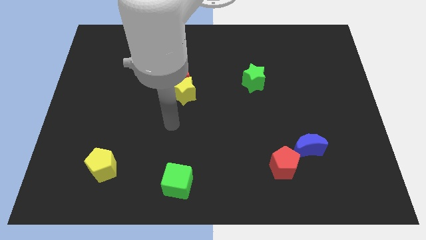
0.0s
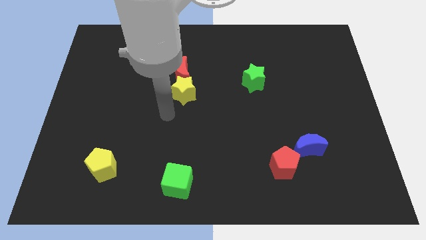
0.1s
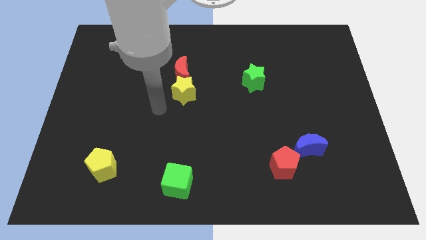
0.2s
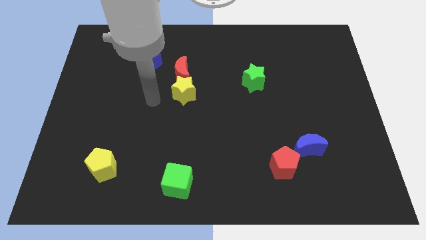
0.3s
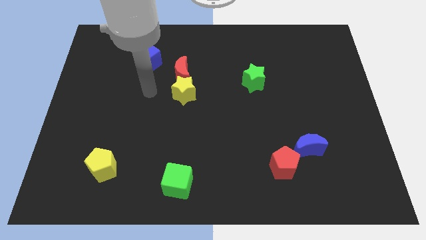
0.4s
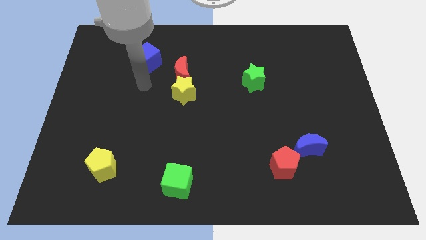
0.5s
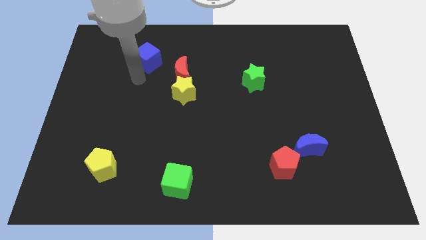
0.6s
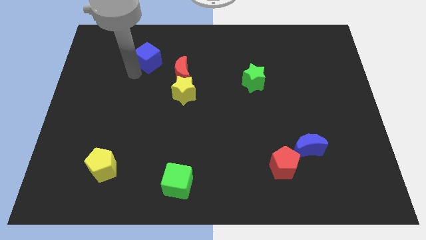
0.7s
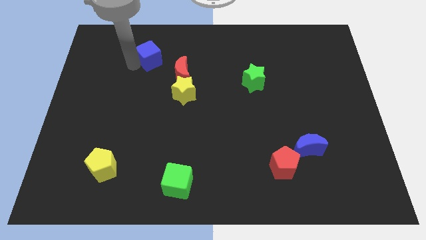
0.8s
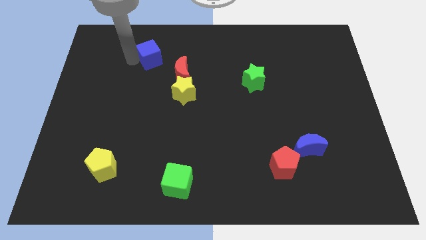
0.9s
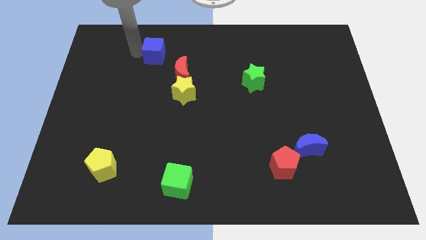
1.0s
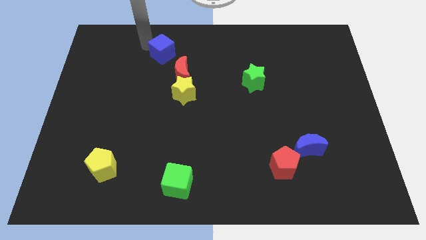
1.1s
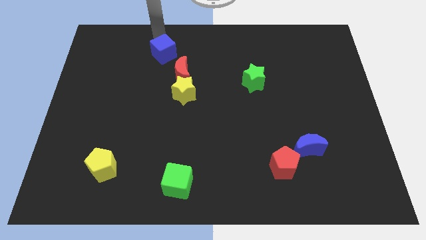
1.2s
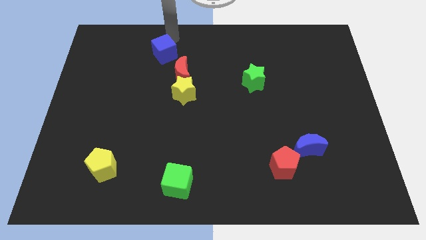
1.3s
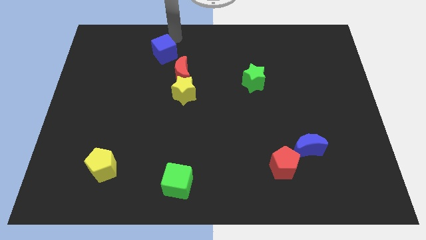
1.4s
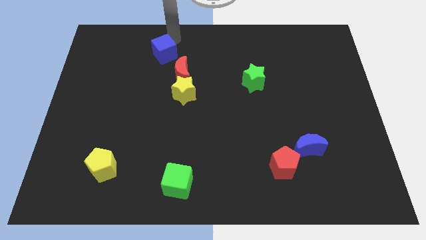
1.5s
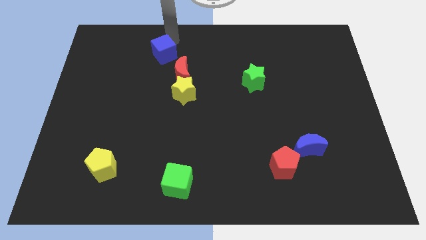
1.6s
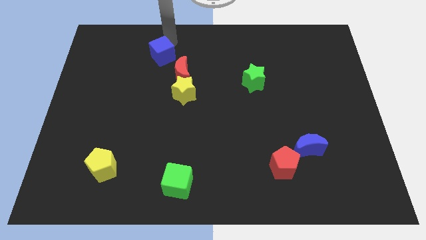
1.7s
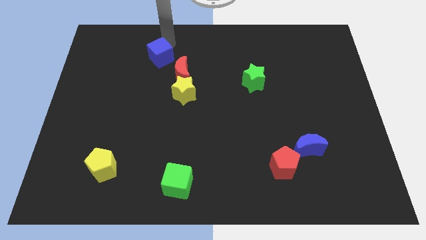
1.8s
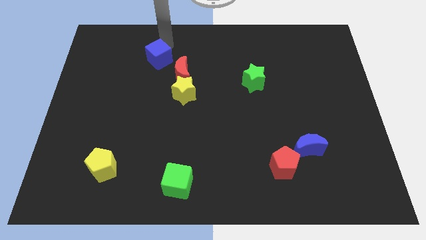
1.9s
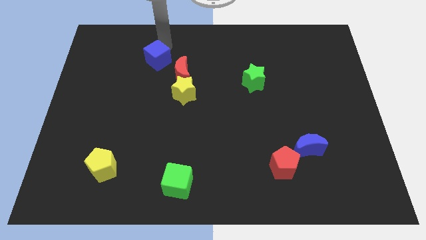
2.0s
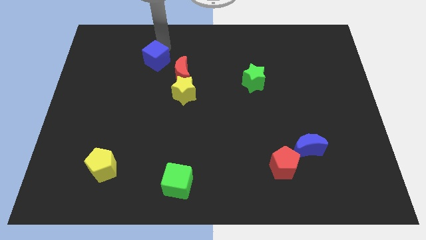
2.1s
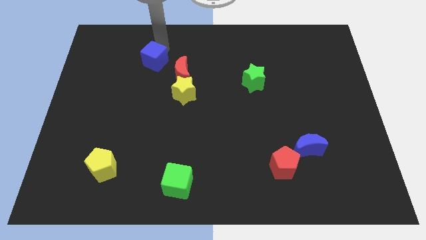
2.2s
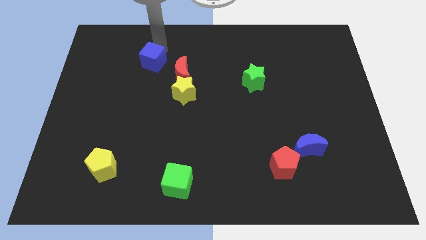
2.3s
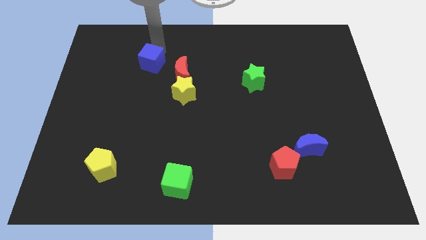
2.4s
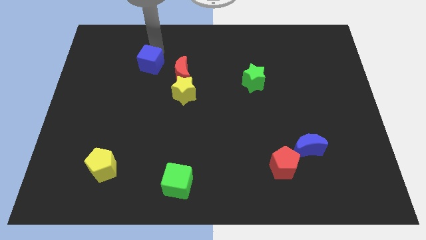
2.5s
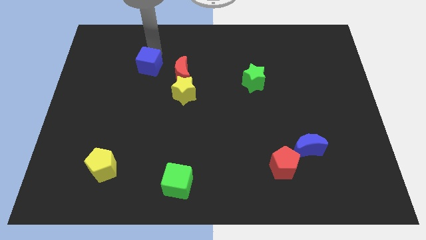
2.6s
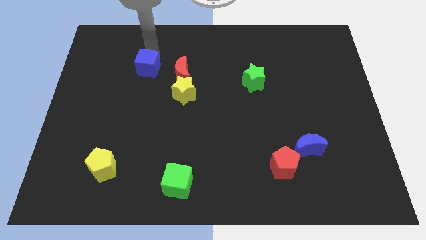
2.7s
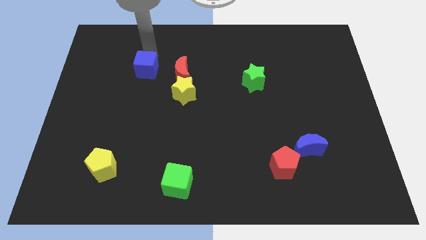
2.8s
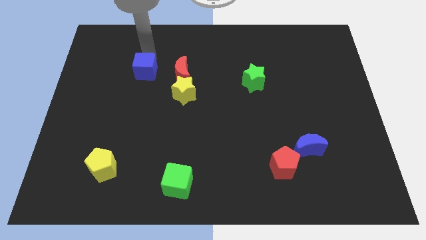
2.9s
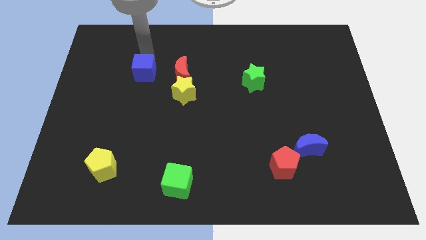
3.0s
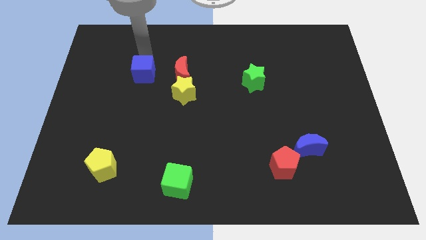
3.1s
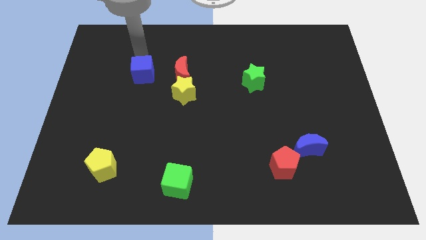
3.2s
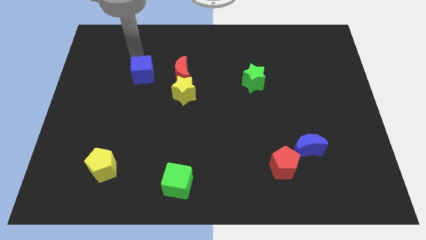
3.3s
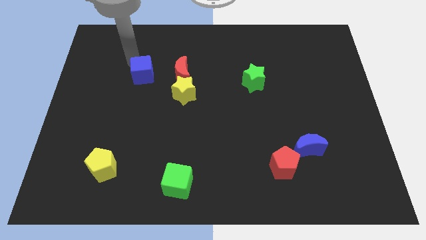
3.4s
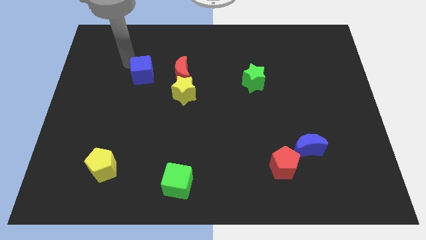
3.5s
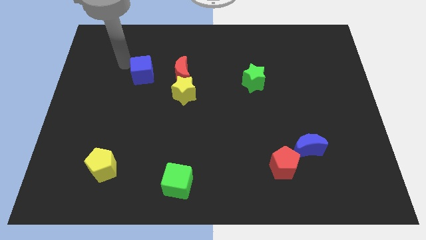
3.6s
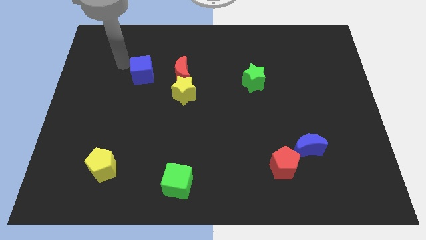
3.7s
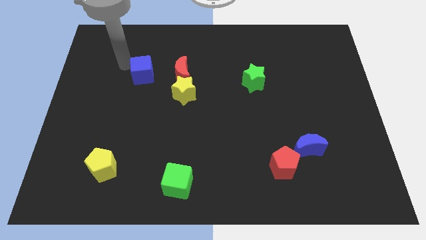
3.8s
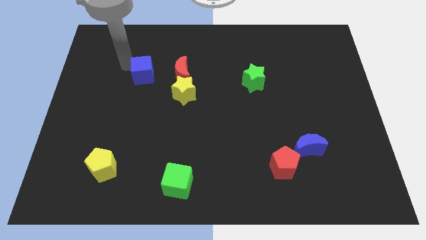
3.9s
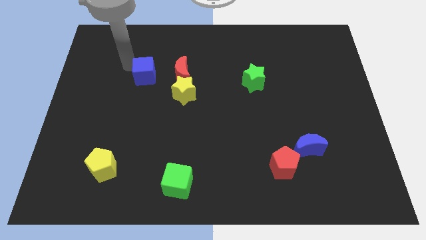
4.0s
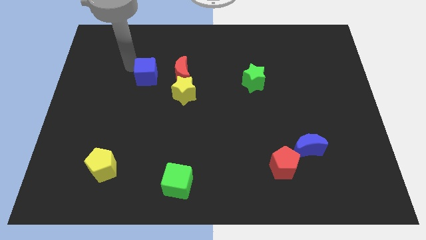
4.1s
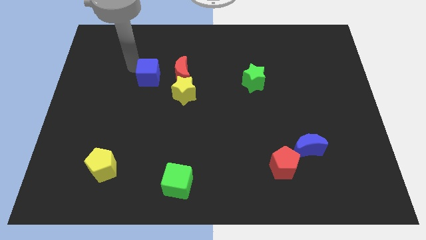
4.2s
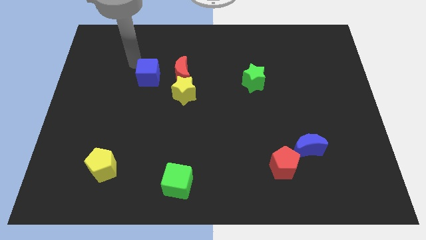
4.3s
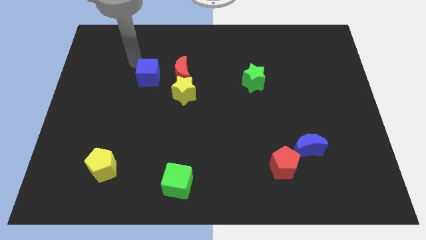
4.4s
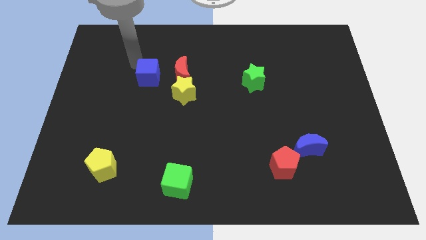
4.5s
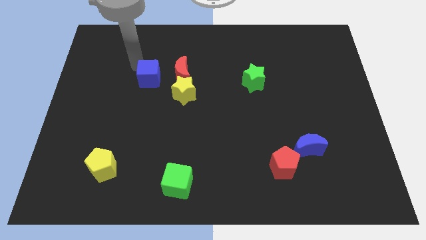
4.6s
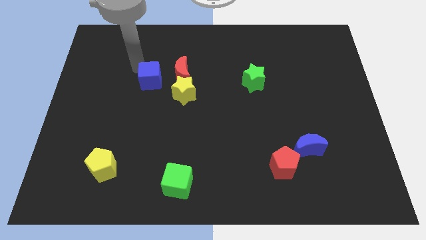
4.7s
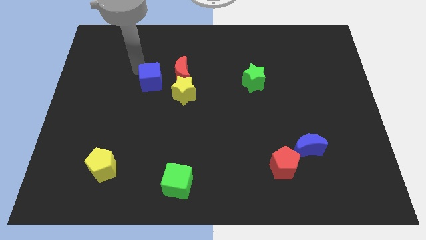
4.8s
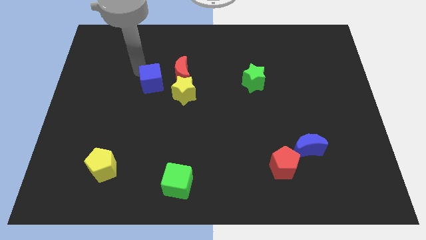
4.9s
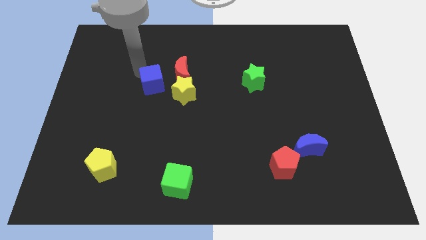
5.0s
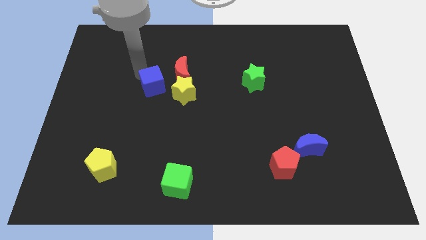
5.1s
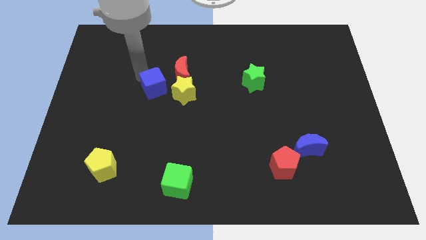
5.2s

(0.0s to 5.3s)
move the blue cube diagonally down and to the right a little bit

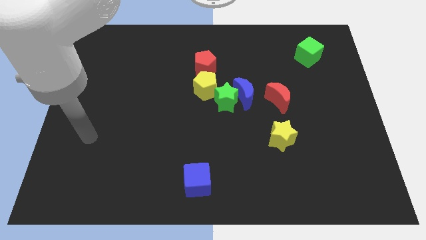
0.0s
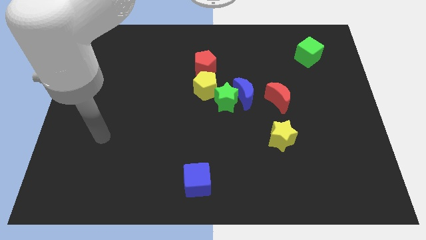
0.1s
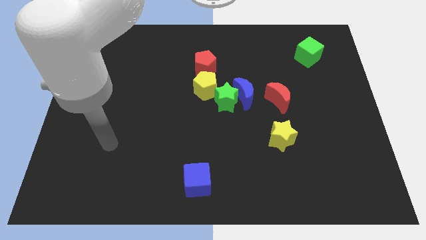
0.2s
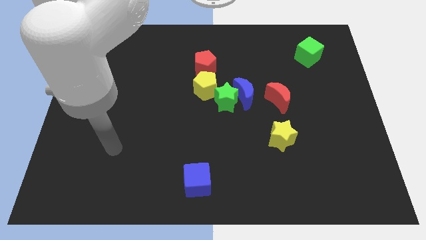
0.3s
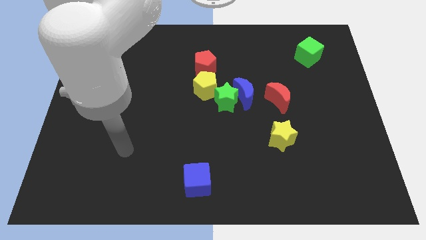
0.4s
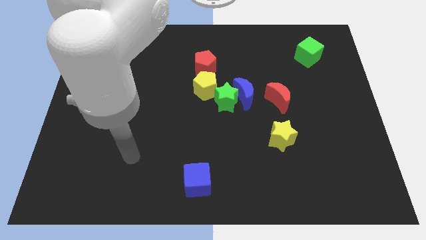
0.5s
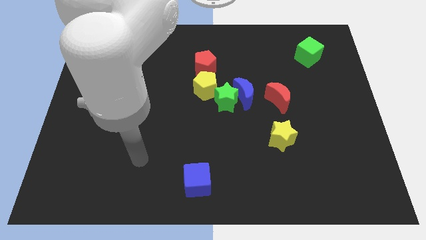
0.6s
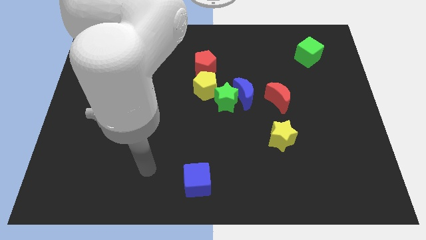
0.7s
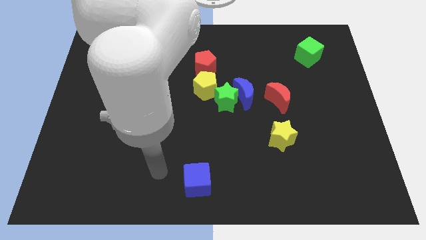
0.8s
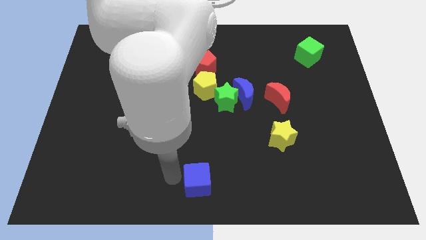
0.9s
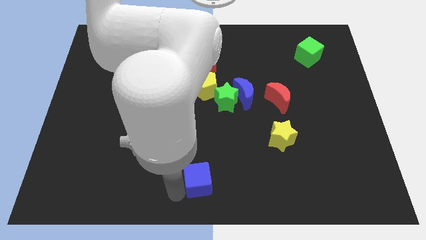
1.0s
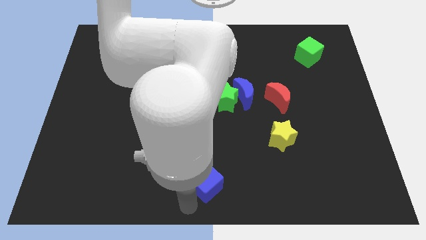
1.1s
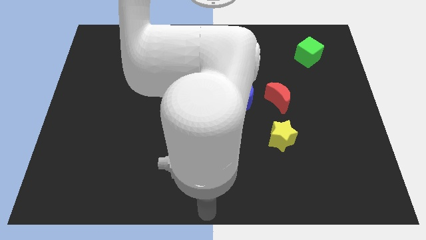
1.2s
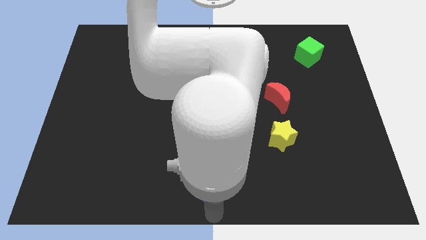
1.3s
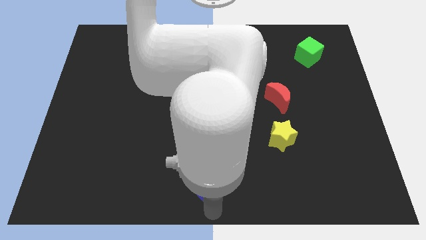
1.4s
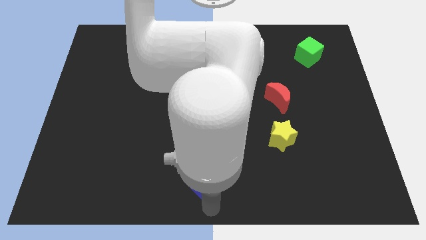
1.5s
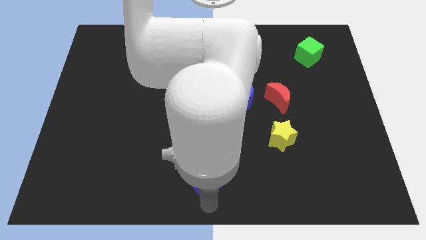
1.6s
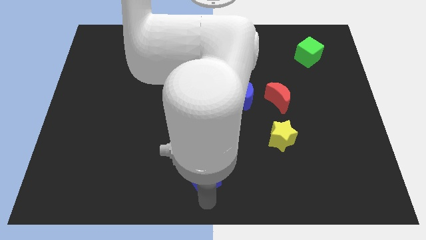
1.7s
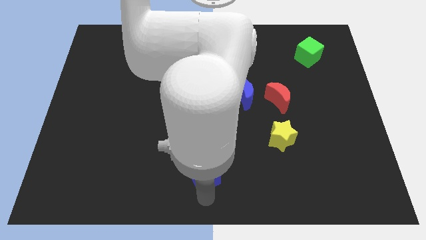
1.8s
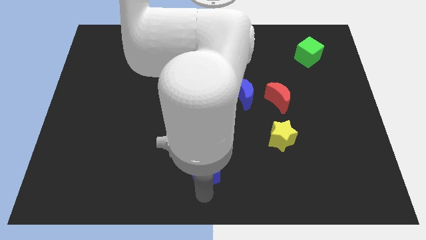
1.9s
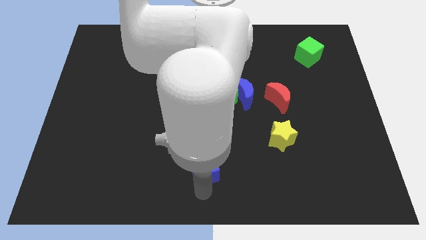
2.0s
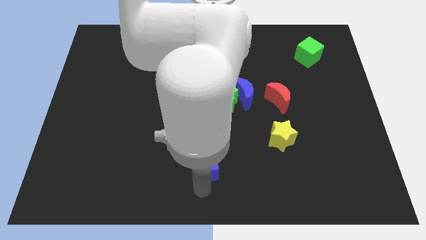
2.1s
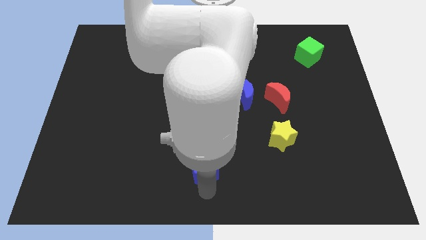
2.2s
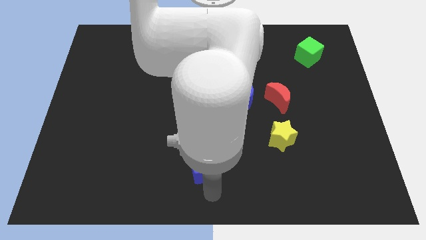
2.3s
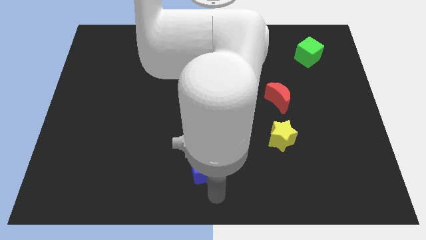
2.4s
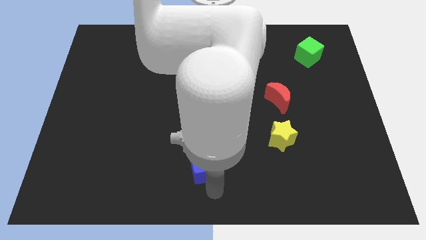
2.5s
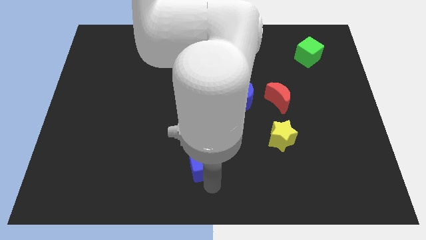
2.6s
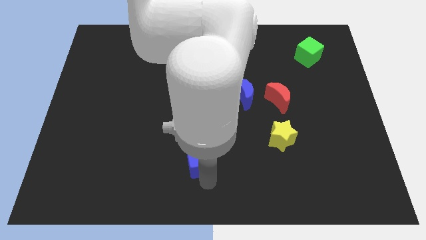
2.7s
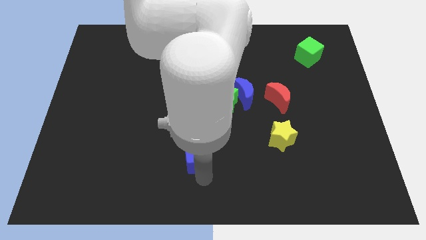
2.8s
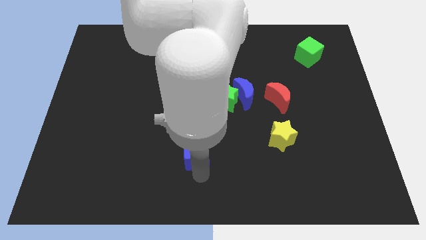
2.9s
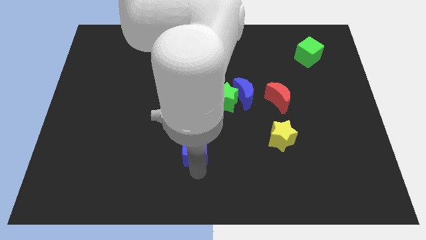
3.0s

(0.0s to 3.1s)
slightly slide the blue cube upwards
